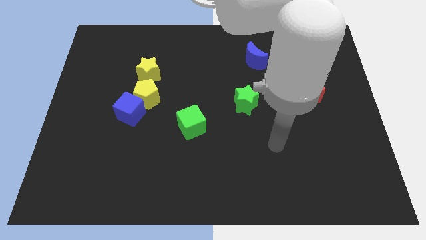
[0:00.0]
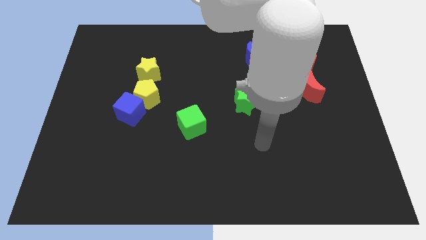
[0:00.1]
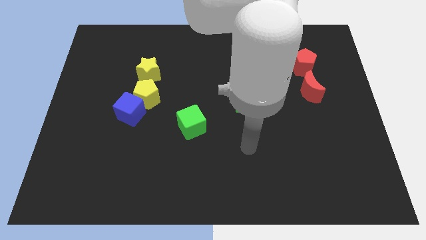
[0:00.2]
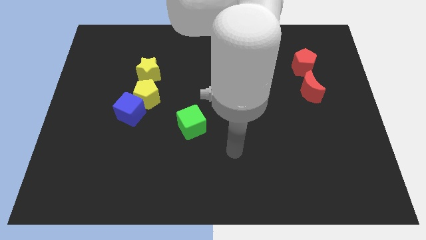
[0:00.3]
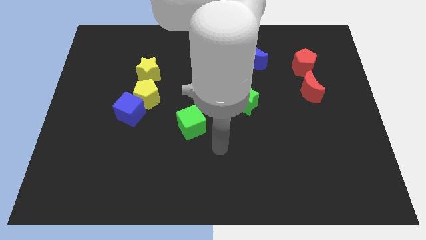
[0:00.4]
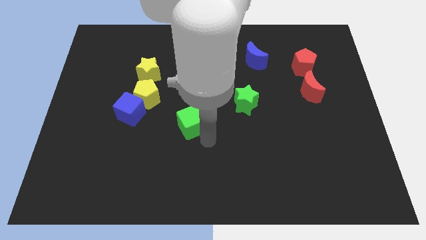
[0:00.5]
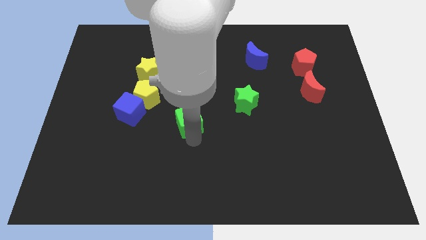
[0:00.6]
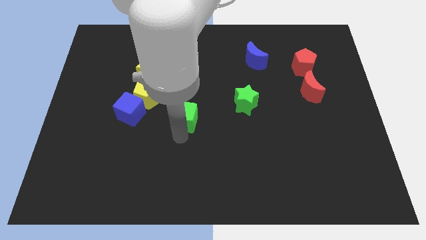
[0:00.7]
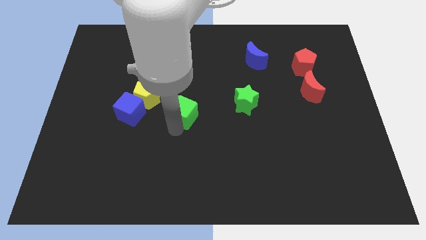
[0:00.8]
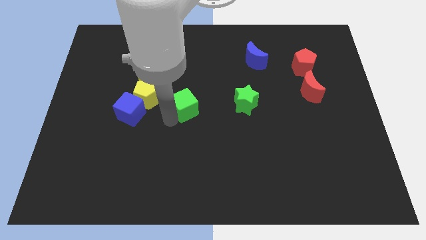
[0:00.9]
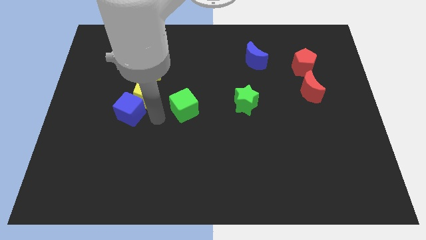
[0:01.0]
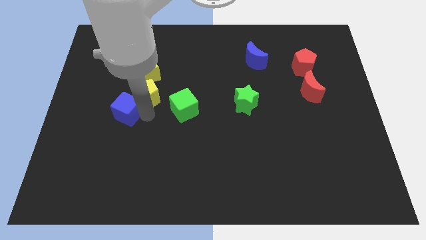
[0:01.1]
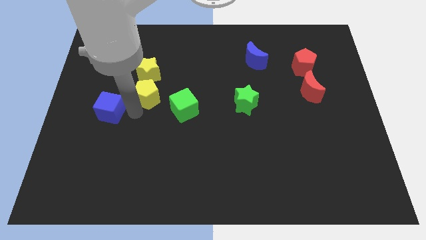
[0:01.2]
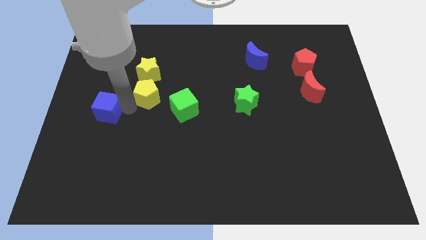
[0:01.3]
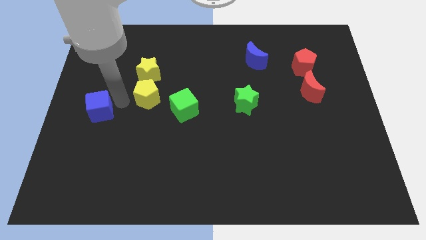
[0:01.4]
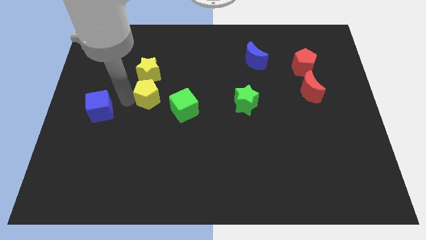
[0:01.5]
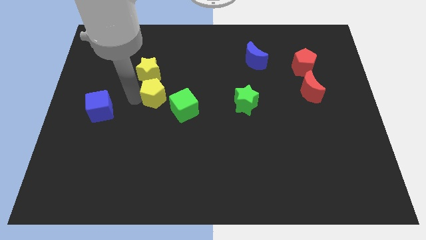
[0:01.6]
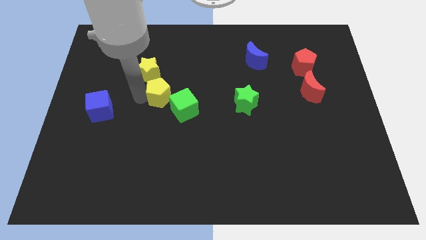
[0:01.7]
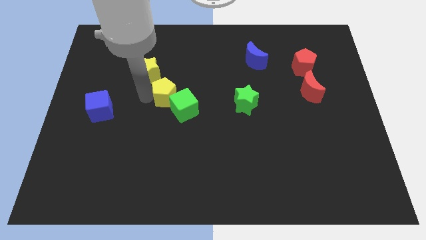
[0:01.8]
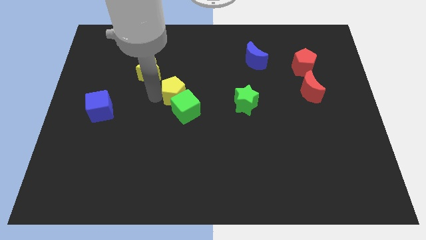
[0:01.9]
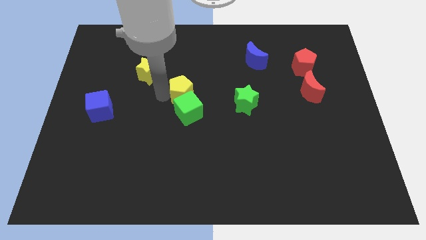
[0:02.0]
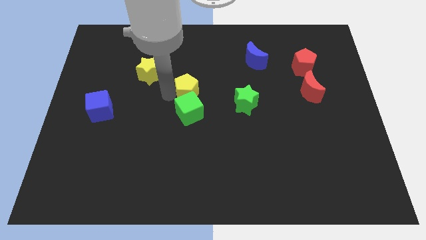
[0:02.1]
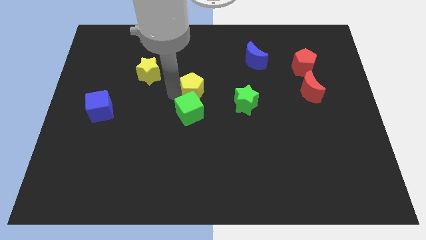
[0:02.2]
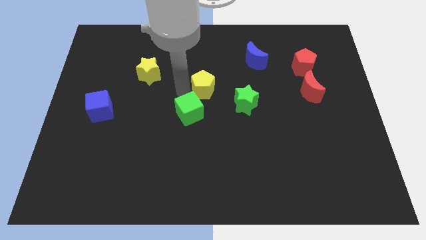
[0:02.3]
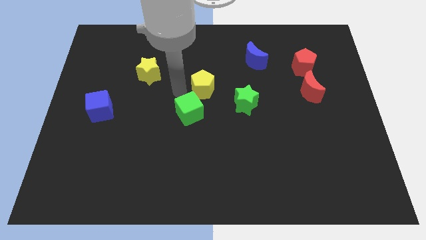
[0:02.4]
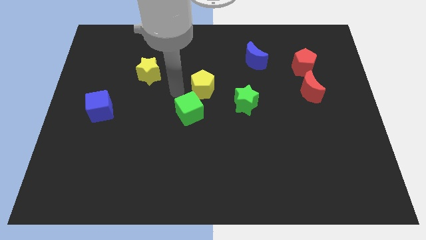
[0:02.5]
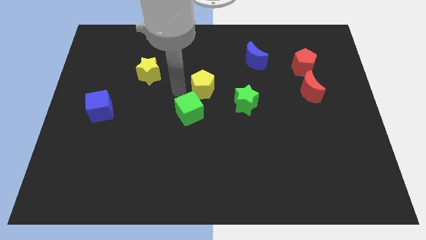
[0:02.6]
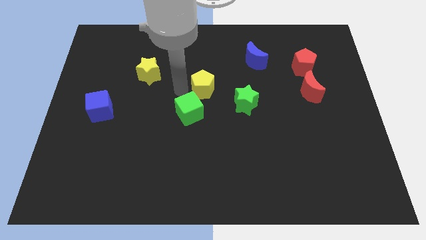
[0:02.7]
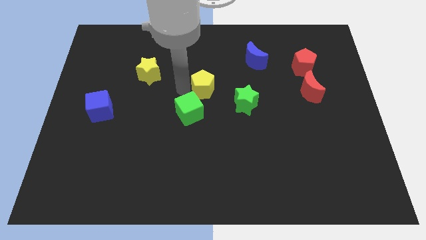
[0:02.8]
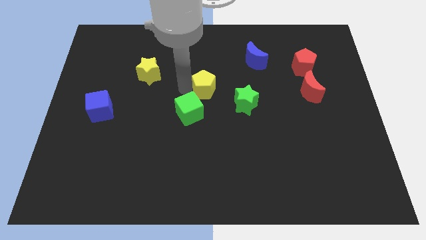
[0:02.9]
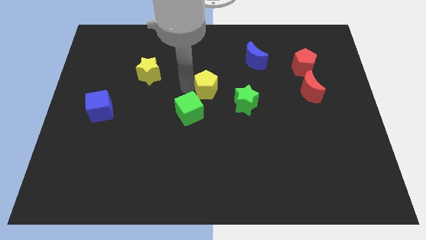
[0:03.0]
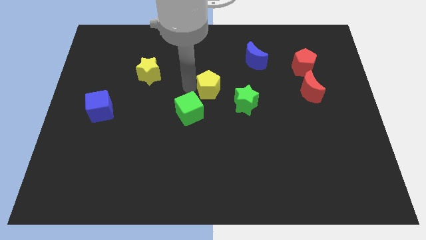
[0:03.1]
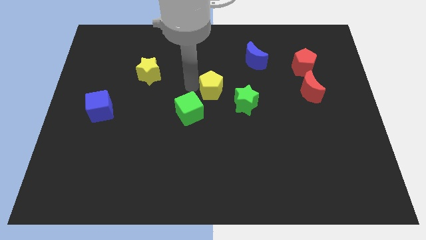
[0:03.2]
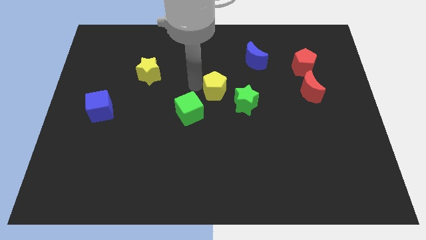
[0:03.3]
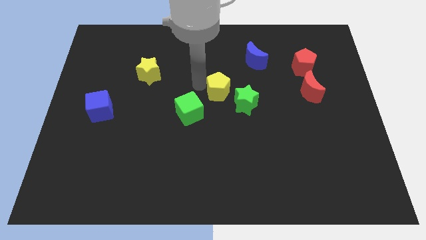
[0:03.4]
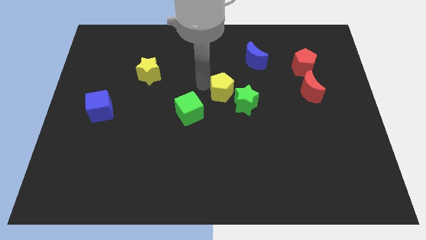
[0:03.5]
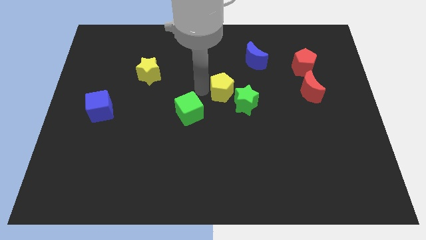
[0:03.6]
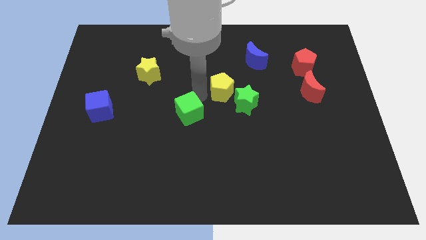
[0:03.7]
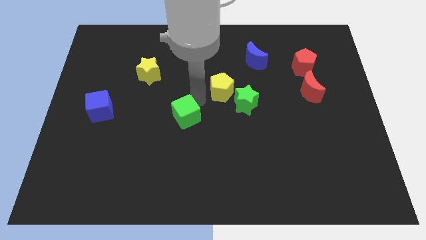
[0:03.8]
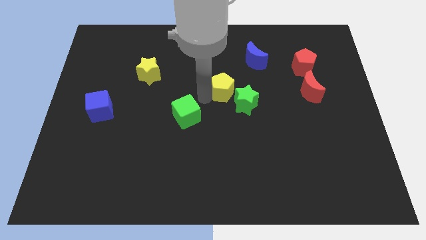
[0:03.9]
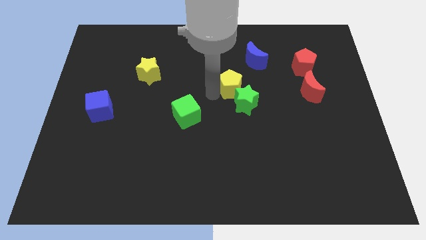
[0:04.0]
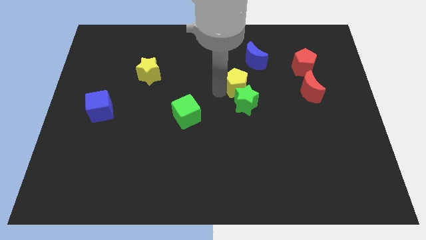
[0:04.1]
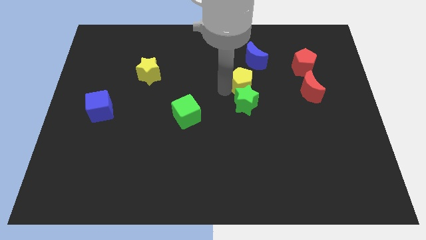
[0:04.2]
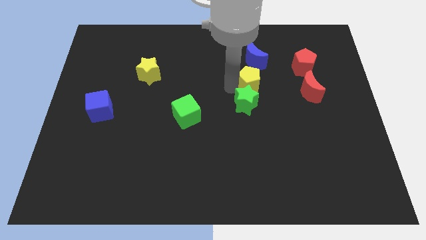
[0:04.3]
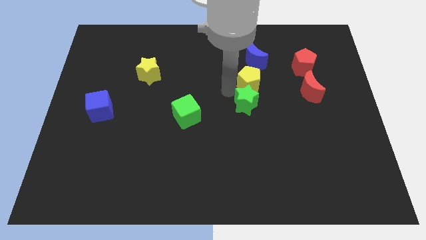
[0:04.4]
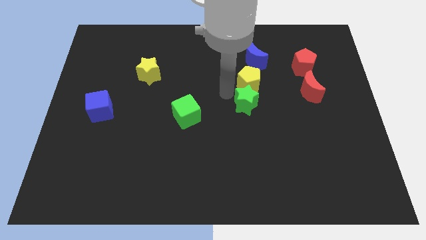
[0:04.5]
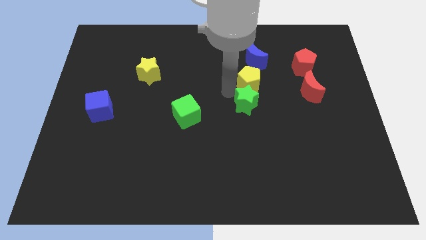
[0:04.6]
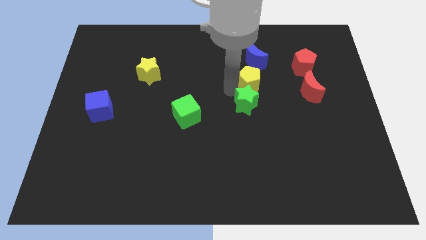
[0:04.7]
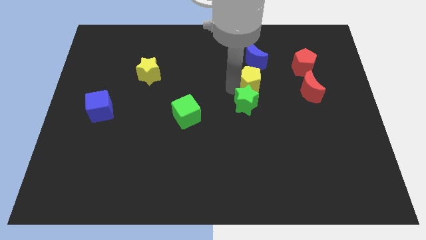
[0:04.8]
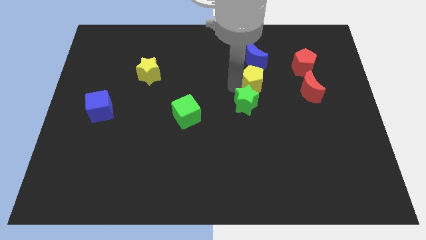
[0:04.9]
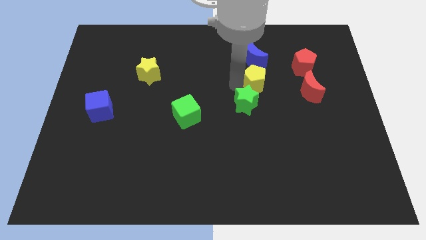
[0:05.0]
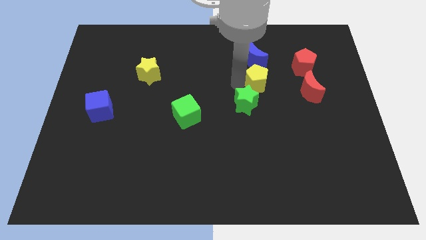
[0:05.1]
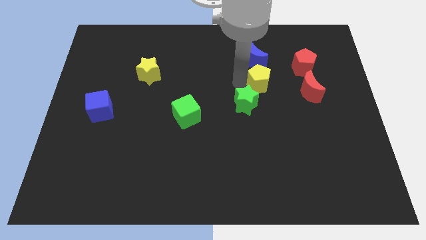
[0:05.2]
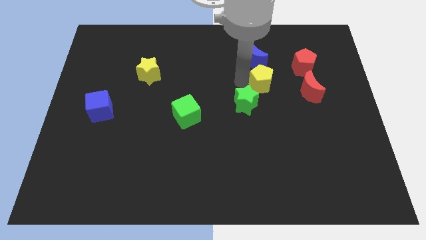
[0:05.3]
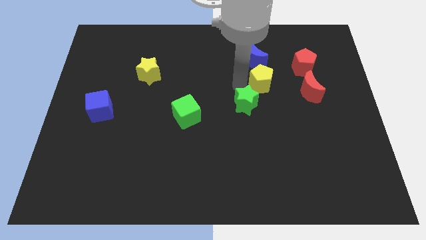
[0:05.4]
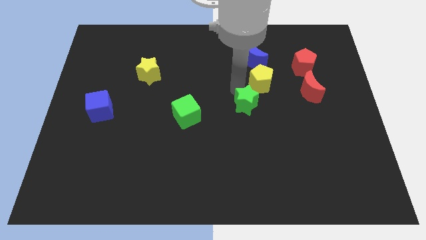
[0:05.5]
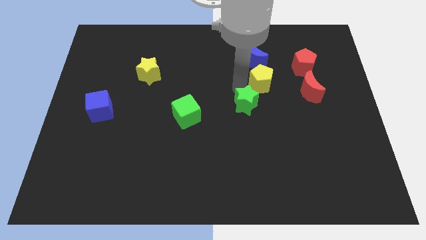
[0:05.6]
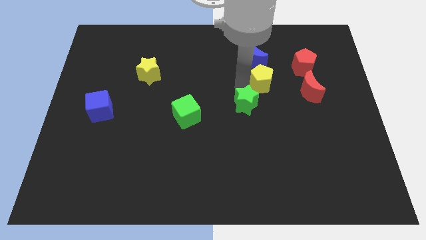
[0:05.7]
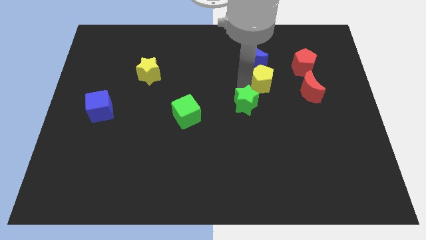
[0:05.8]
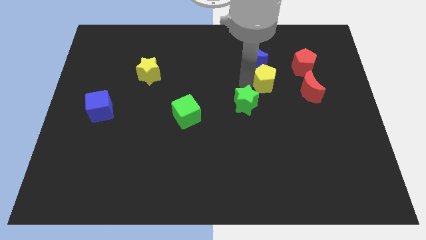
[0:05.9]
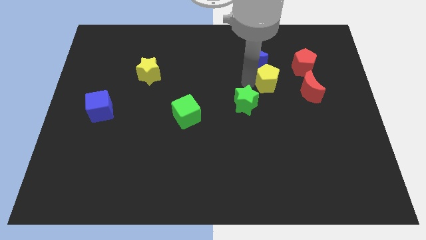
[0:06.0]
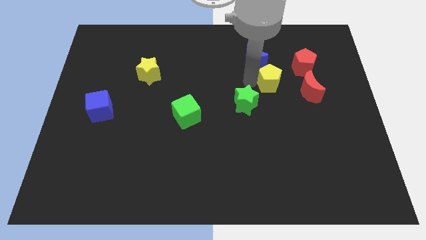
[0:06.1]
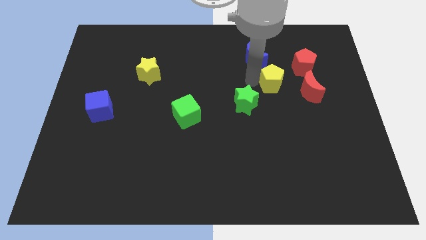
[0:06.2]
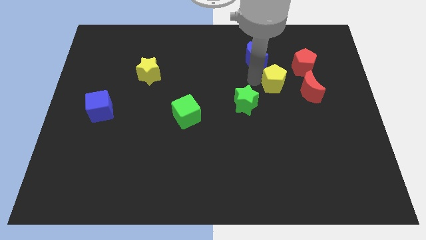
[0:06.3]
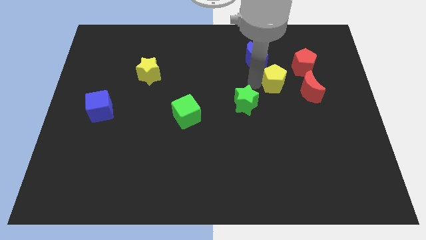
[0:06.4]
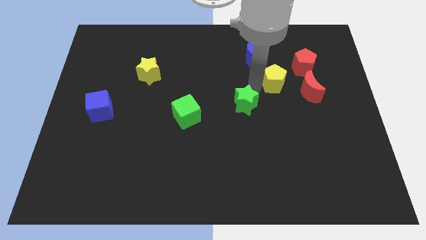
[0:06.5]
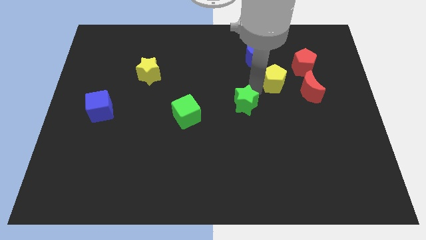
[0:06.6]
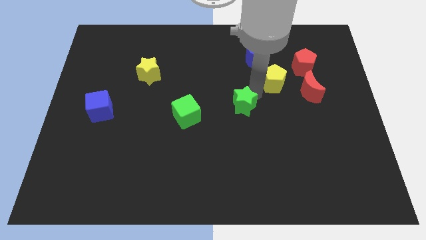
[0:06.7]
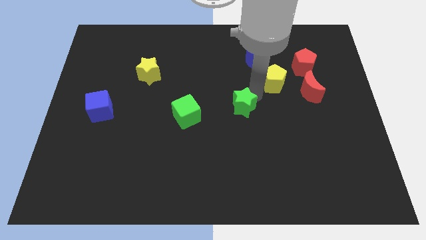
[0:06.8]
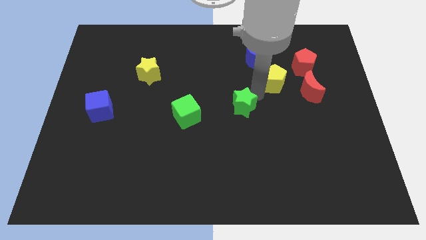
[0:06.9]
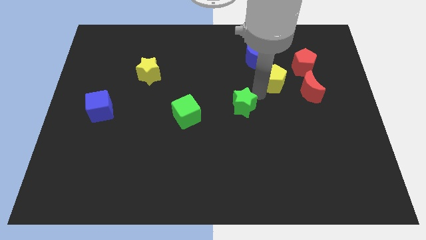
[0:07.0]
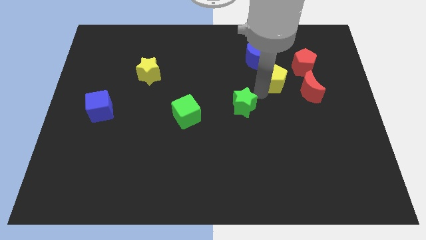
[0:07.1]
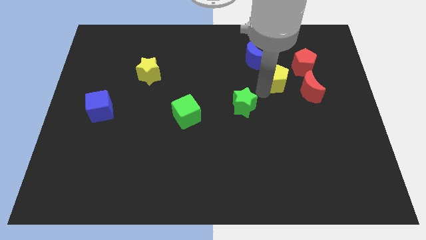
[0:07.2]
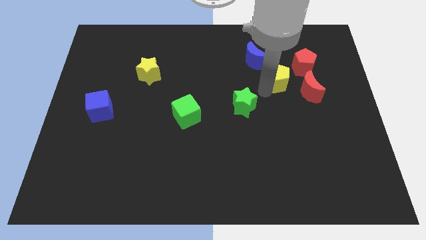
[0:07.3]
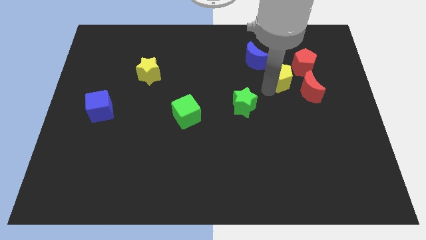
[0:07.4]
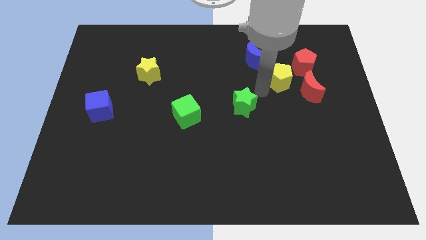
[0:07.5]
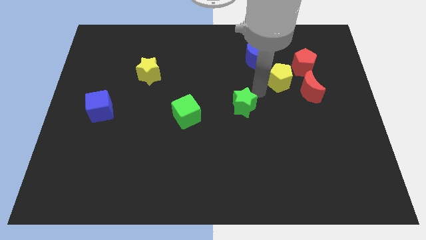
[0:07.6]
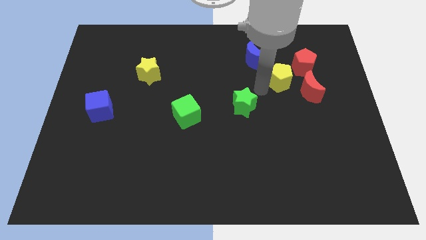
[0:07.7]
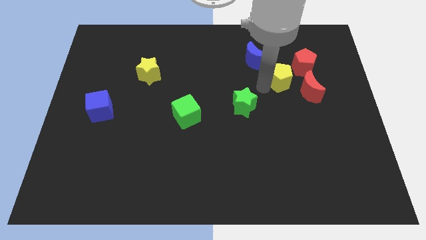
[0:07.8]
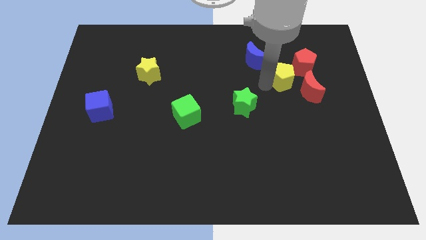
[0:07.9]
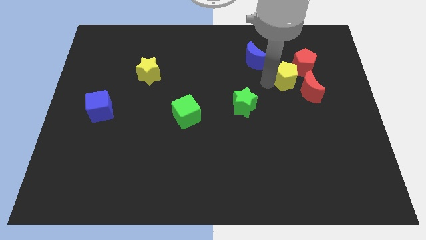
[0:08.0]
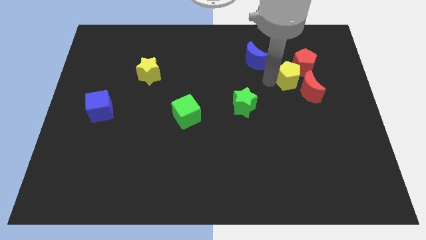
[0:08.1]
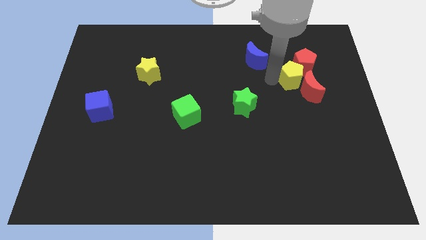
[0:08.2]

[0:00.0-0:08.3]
move the yellow pentagon to the red pentagon

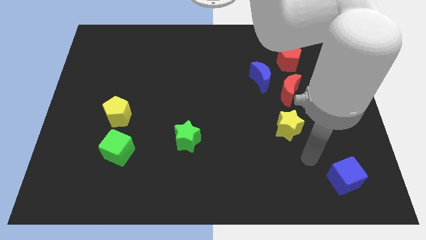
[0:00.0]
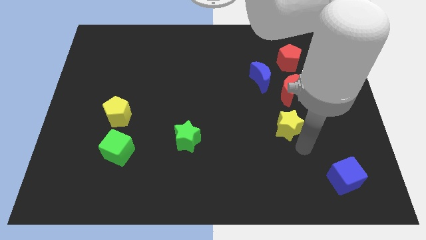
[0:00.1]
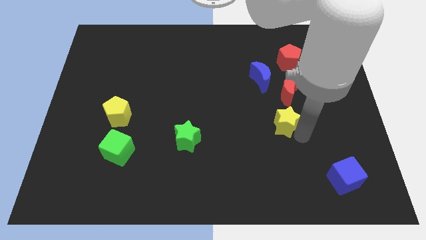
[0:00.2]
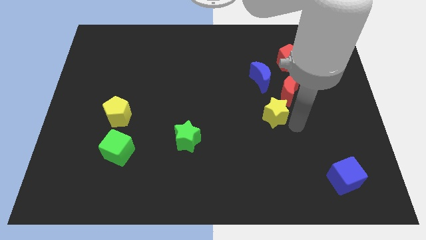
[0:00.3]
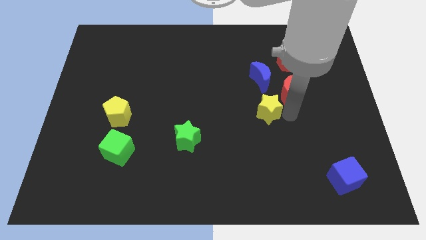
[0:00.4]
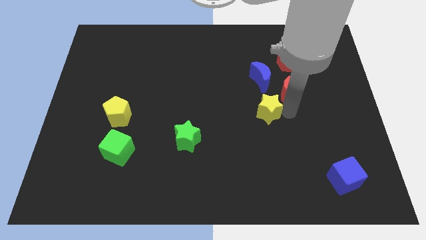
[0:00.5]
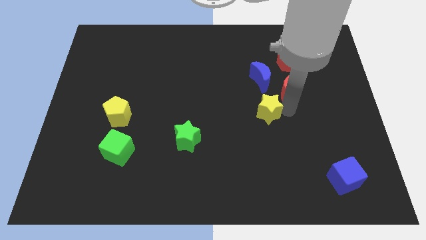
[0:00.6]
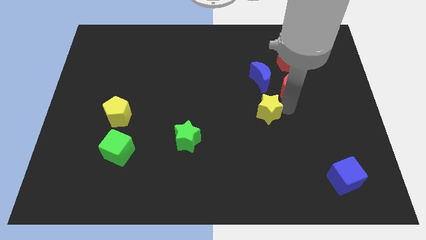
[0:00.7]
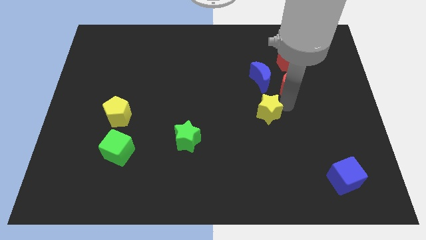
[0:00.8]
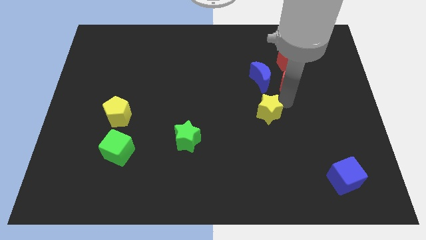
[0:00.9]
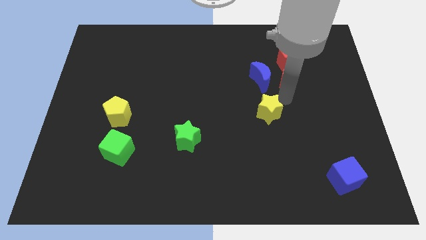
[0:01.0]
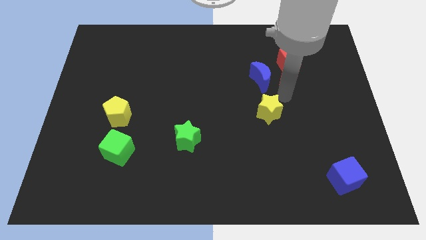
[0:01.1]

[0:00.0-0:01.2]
slide the red moon close to the red pentagon
